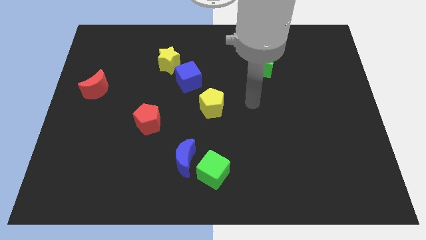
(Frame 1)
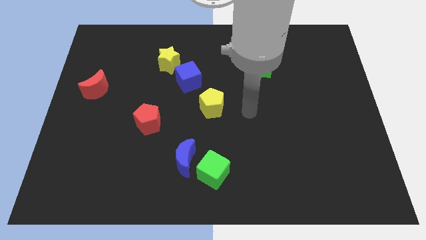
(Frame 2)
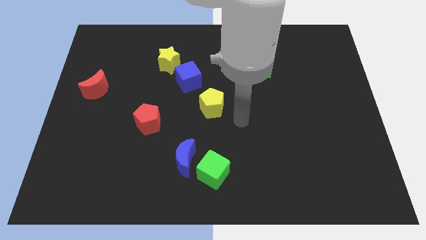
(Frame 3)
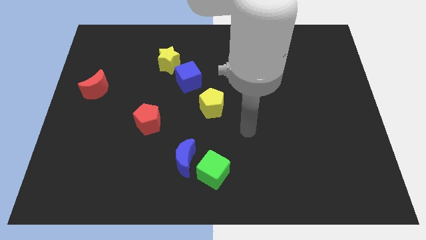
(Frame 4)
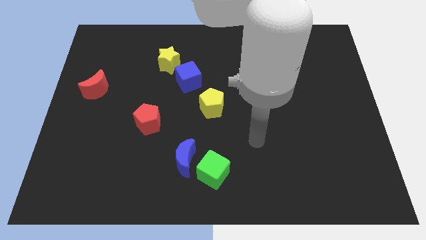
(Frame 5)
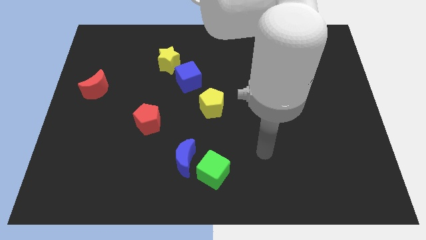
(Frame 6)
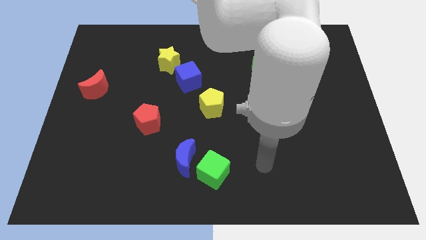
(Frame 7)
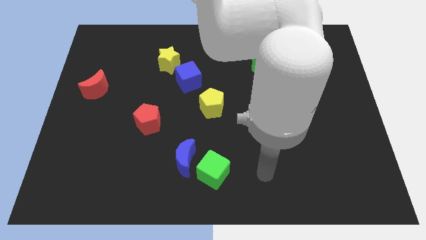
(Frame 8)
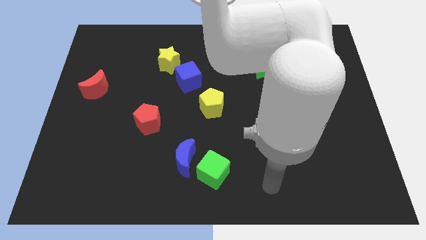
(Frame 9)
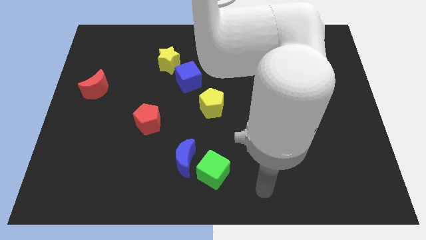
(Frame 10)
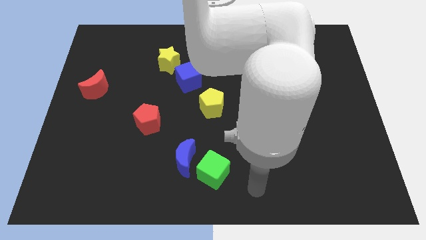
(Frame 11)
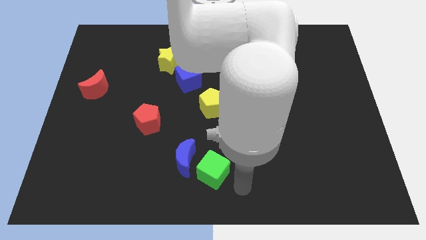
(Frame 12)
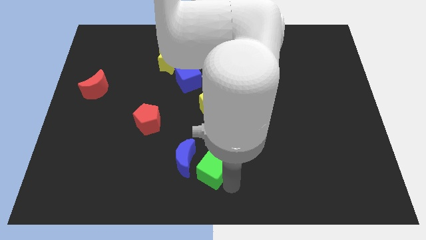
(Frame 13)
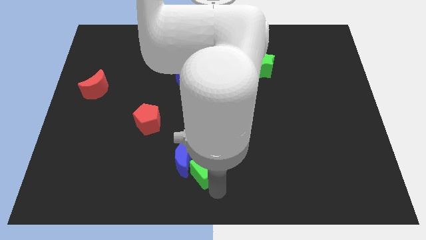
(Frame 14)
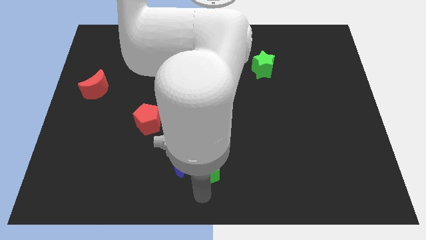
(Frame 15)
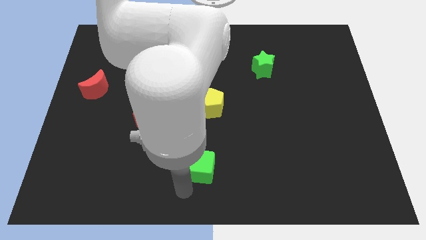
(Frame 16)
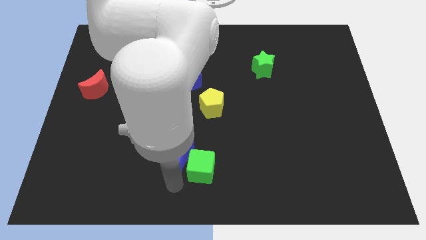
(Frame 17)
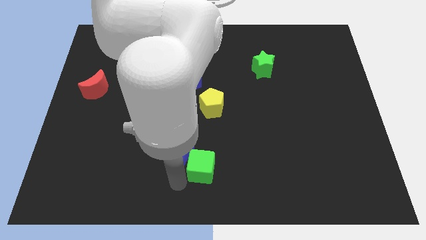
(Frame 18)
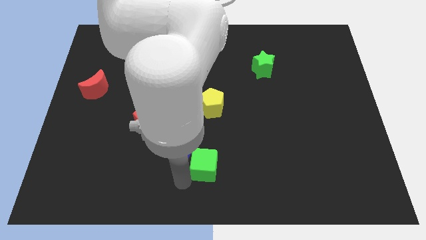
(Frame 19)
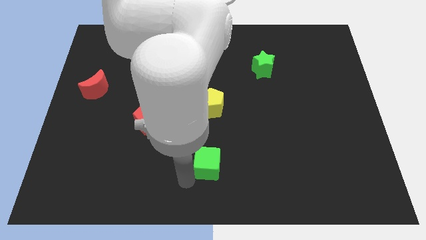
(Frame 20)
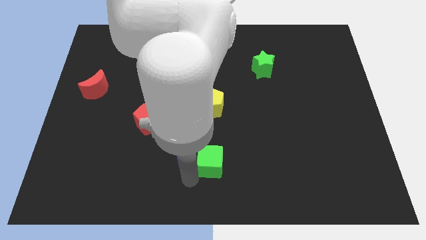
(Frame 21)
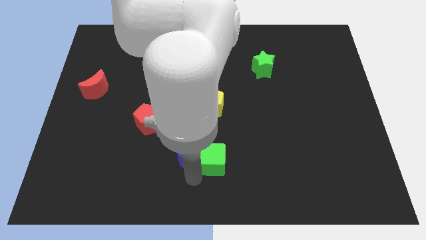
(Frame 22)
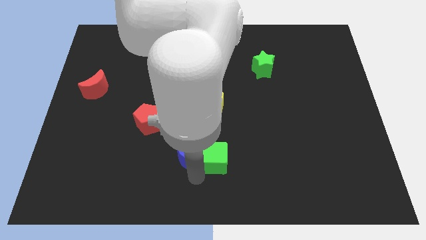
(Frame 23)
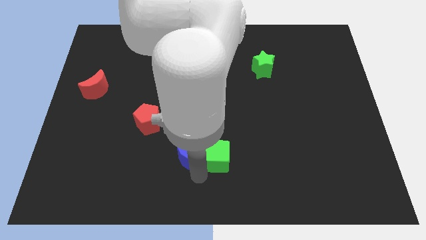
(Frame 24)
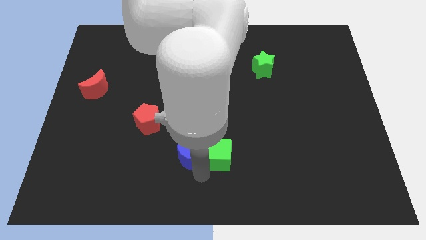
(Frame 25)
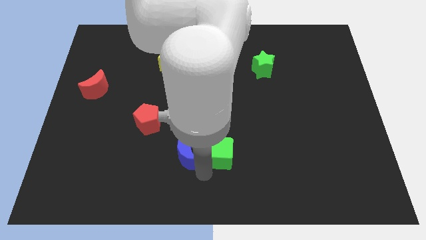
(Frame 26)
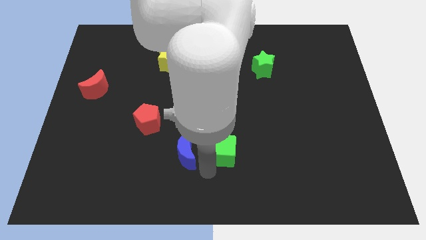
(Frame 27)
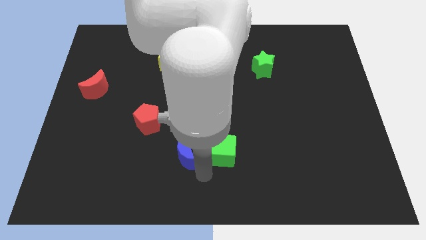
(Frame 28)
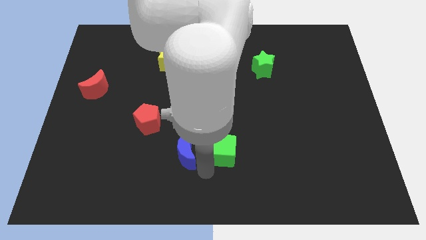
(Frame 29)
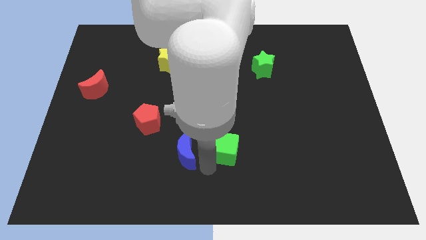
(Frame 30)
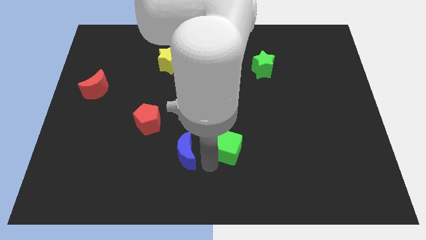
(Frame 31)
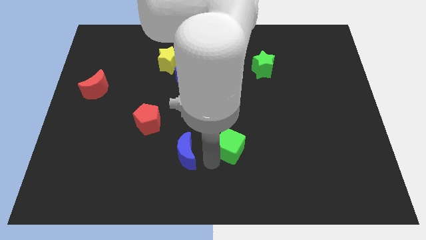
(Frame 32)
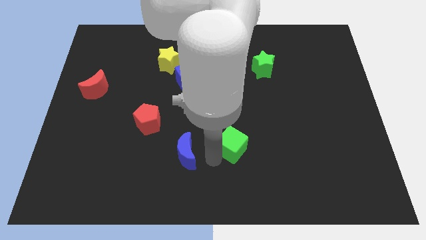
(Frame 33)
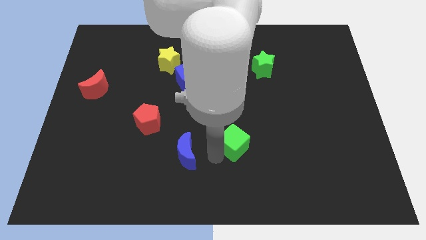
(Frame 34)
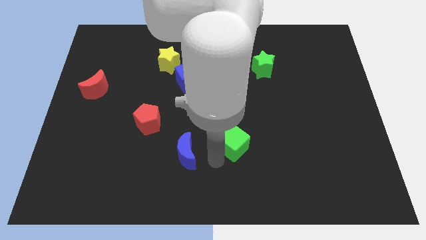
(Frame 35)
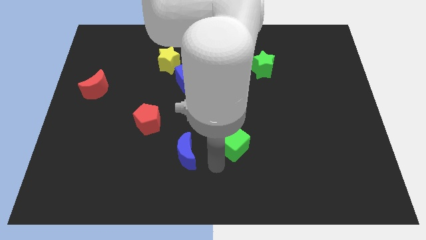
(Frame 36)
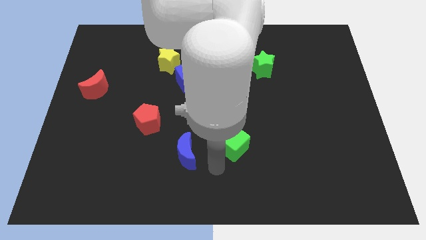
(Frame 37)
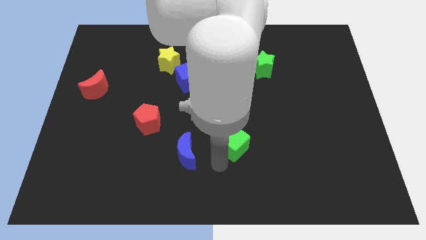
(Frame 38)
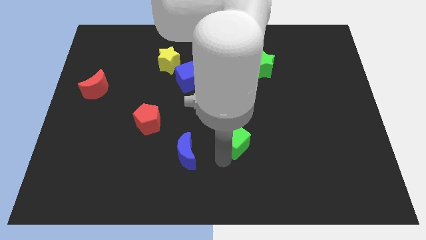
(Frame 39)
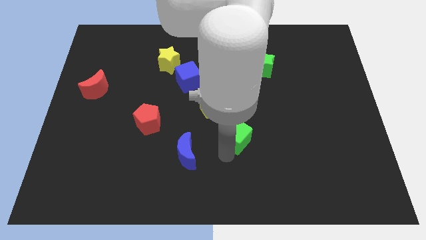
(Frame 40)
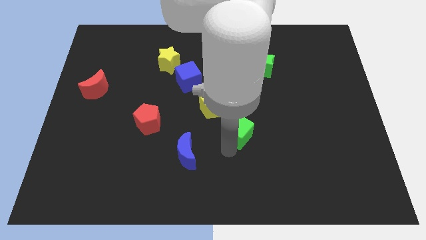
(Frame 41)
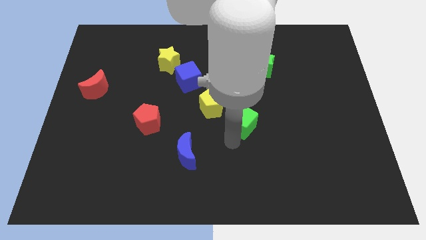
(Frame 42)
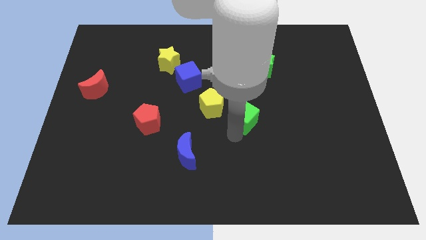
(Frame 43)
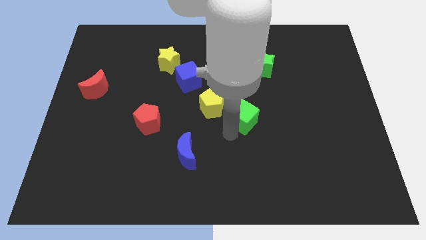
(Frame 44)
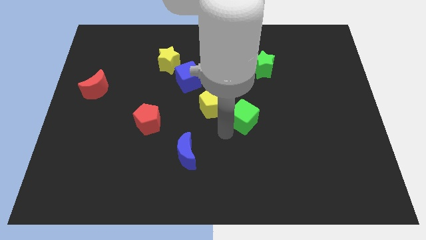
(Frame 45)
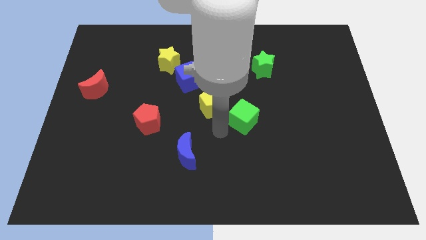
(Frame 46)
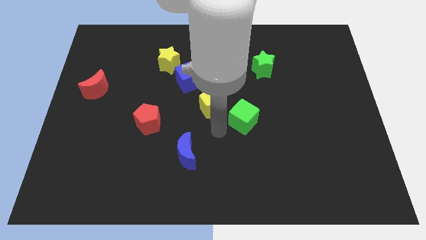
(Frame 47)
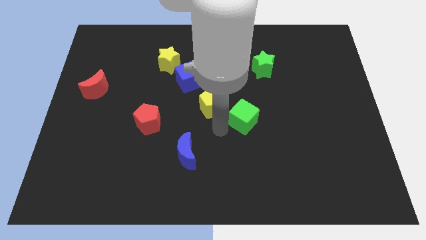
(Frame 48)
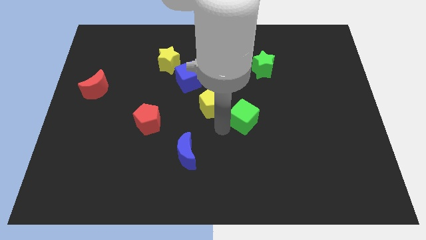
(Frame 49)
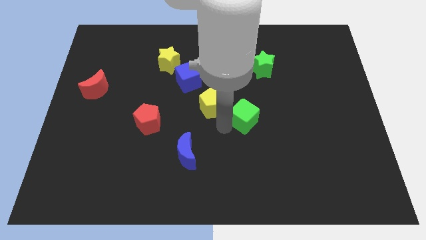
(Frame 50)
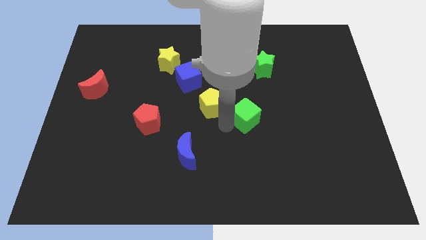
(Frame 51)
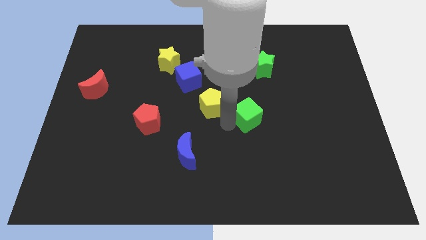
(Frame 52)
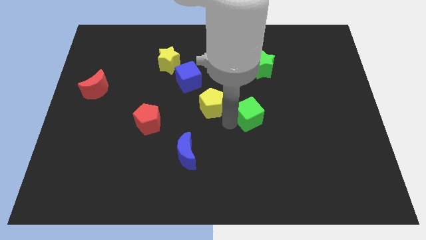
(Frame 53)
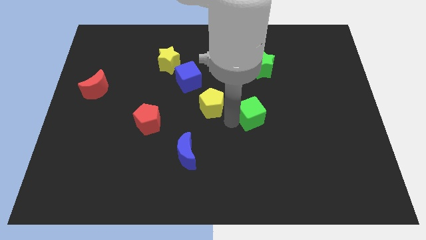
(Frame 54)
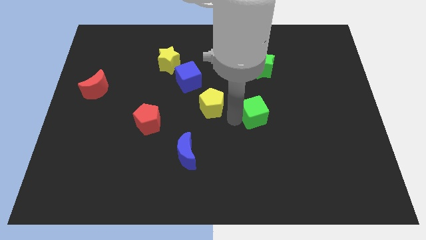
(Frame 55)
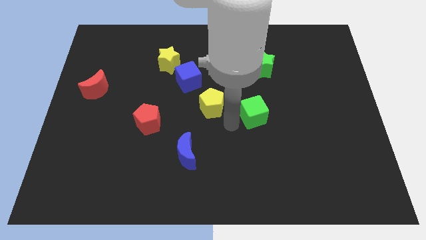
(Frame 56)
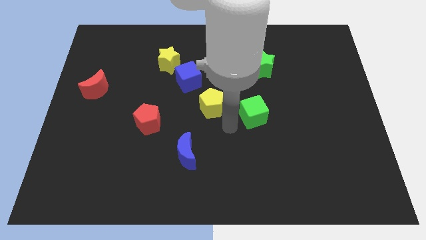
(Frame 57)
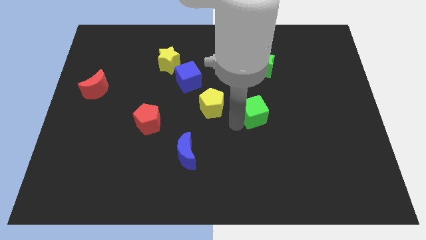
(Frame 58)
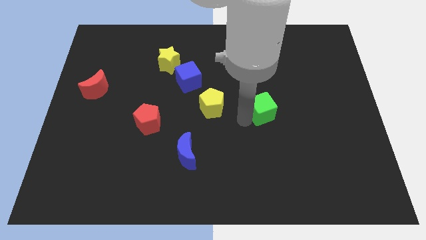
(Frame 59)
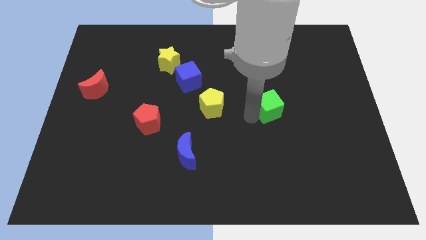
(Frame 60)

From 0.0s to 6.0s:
move the green cube up and to the right

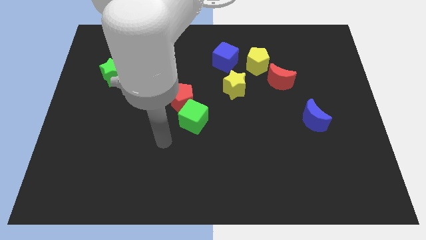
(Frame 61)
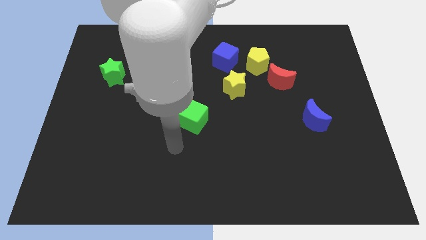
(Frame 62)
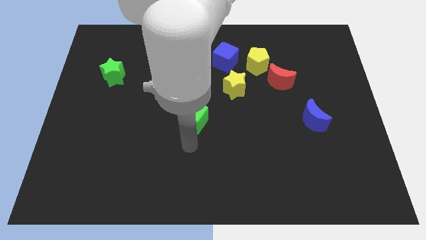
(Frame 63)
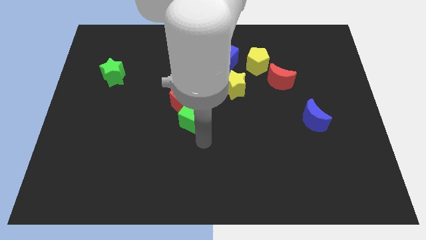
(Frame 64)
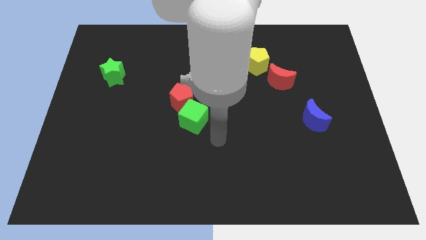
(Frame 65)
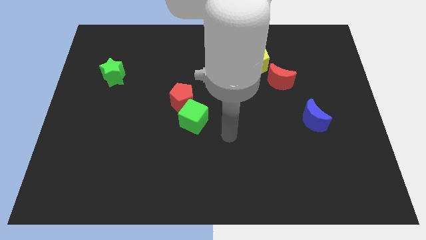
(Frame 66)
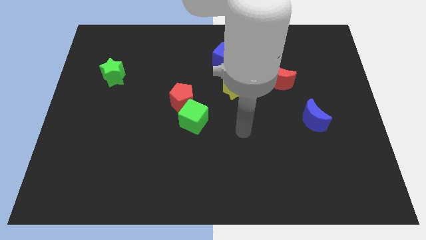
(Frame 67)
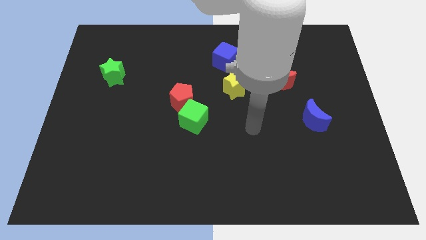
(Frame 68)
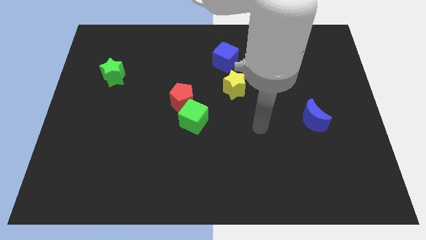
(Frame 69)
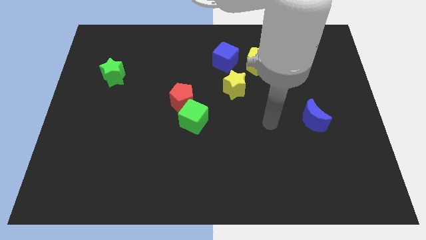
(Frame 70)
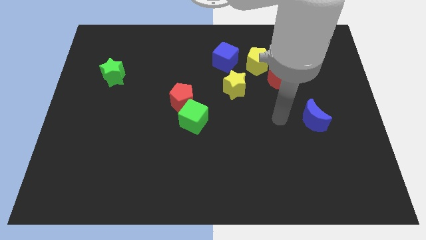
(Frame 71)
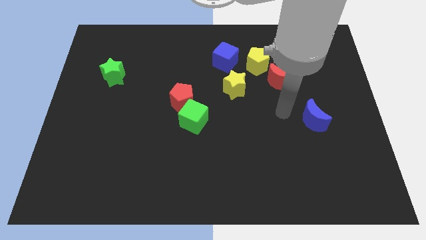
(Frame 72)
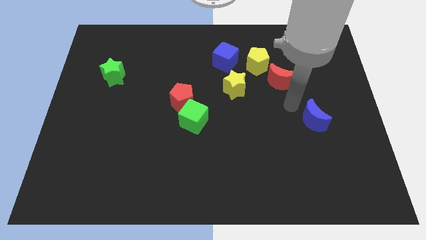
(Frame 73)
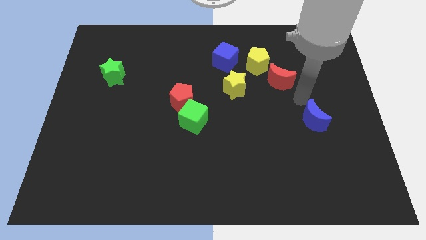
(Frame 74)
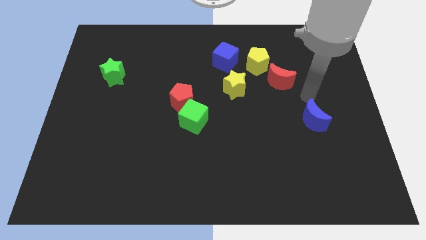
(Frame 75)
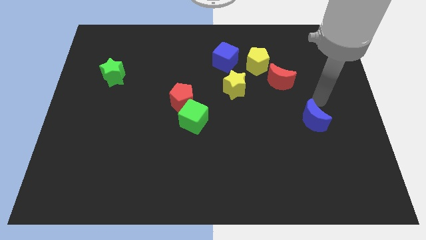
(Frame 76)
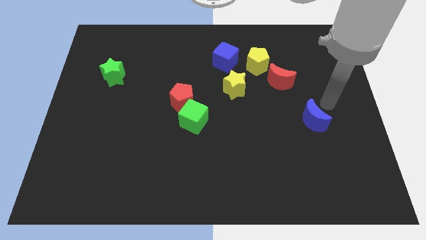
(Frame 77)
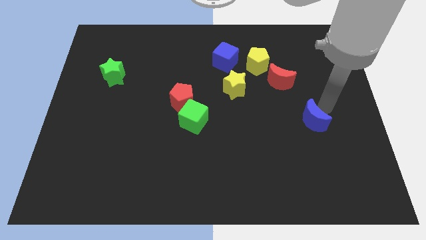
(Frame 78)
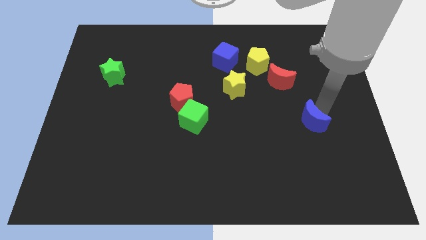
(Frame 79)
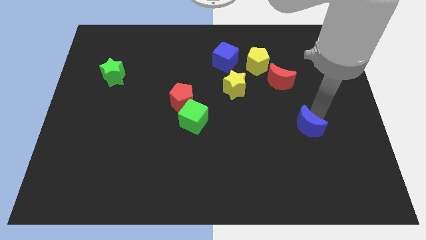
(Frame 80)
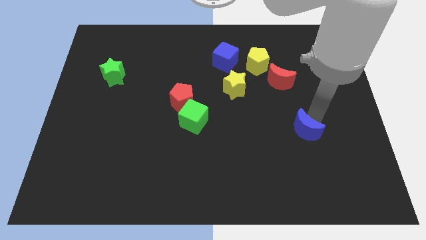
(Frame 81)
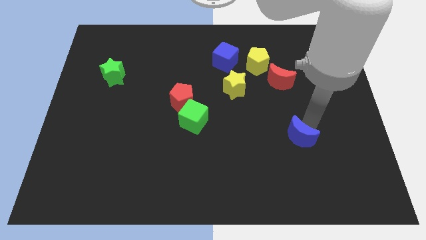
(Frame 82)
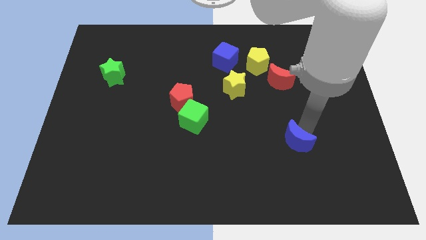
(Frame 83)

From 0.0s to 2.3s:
slide the blue moon a little downwards and left
